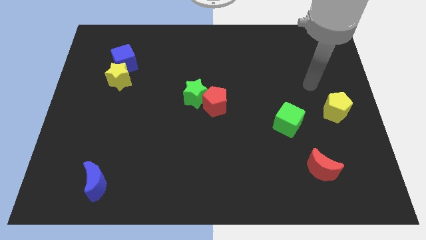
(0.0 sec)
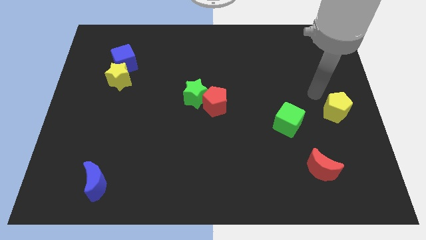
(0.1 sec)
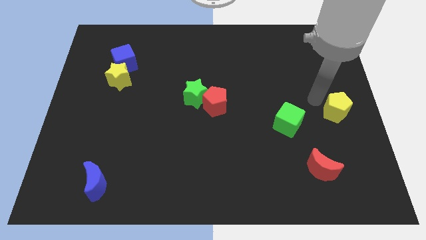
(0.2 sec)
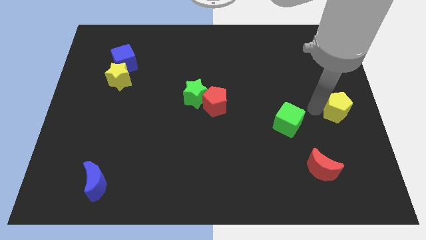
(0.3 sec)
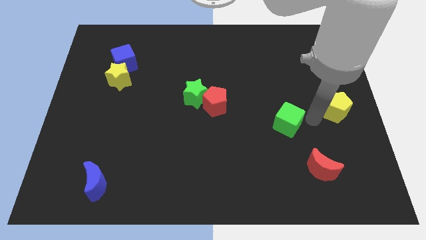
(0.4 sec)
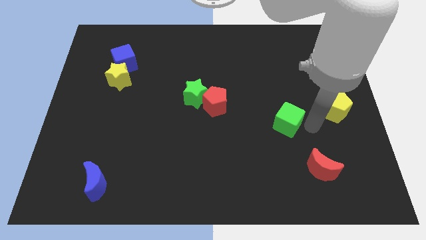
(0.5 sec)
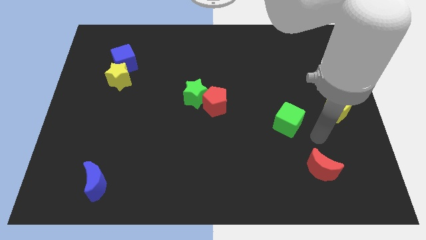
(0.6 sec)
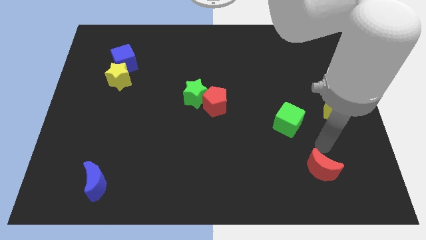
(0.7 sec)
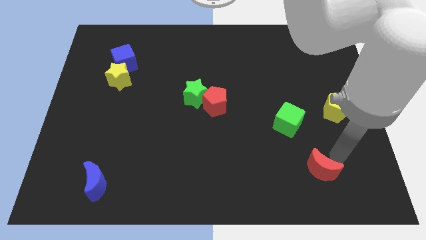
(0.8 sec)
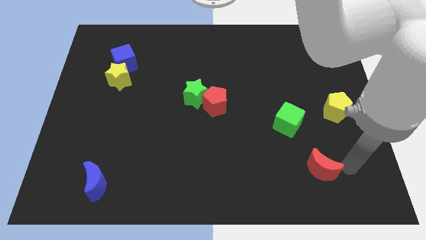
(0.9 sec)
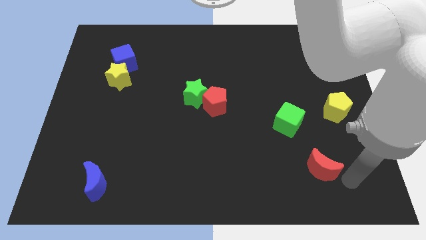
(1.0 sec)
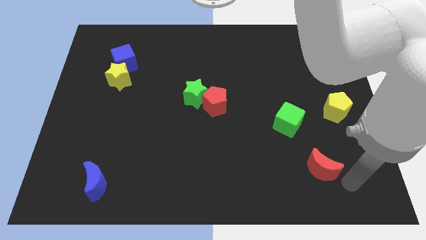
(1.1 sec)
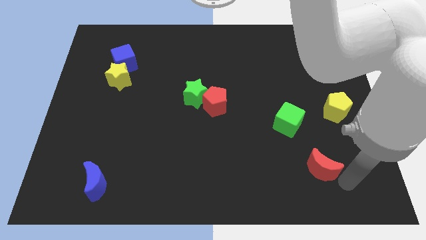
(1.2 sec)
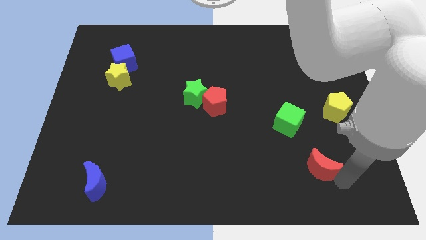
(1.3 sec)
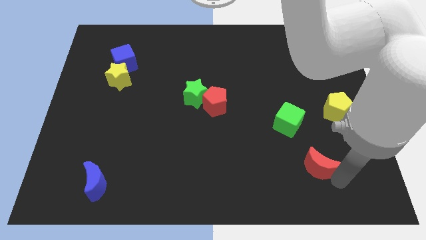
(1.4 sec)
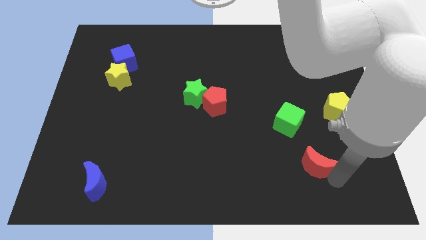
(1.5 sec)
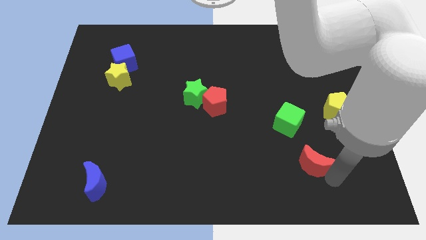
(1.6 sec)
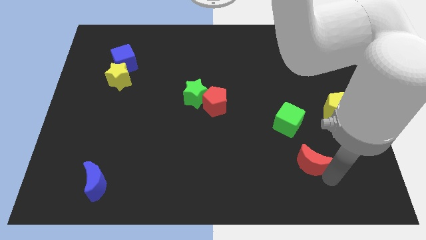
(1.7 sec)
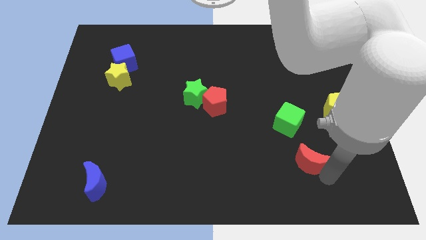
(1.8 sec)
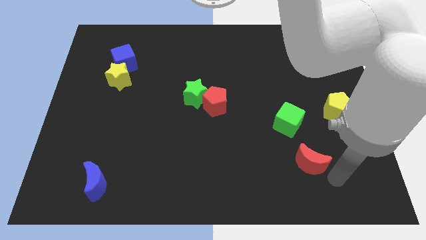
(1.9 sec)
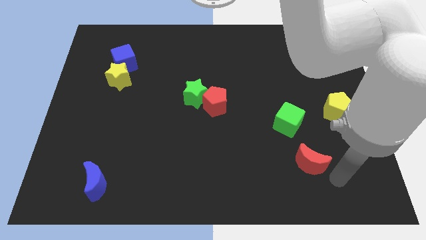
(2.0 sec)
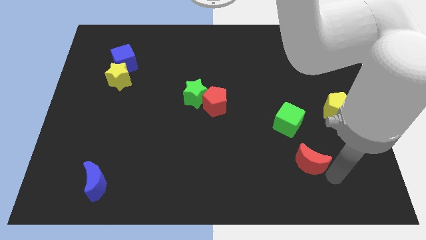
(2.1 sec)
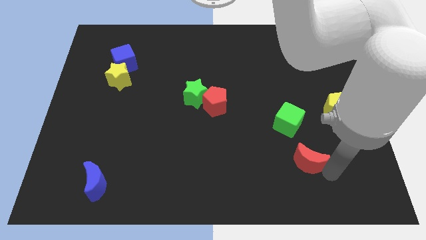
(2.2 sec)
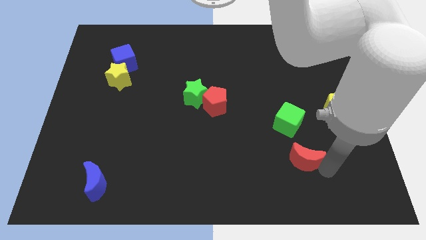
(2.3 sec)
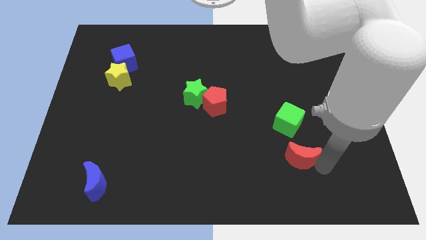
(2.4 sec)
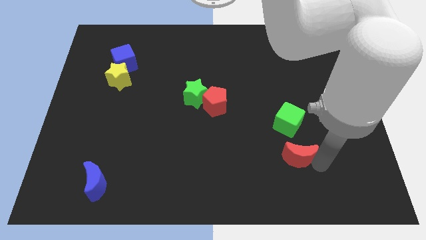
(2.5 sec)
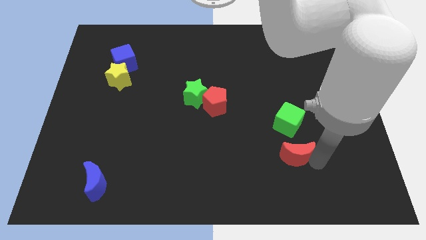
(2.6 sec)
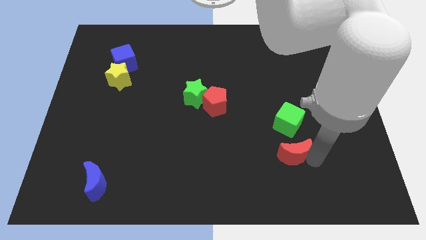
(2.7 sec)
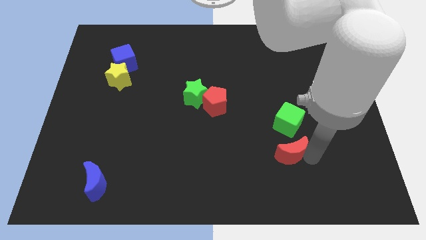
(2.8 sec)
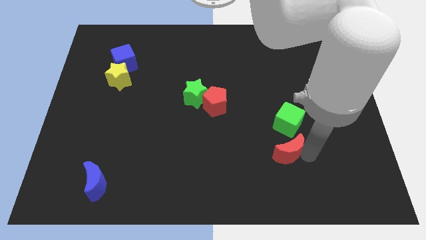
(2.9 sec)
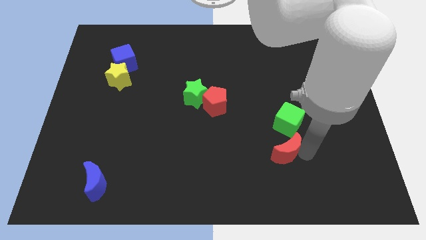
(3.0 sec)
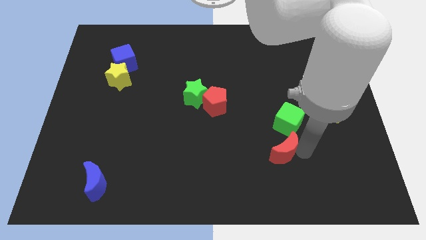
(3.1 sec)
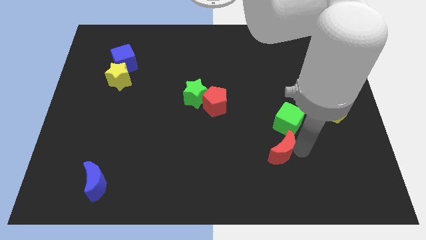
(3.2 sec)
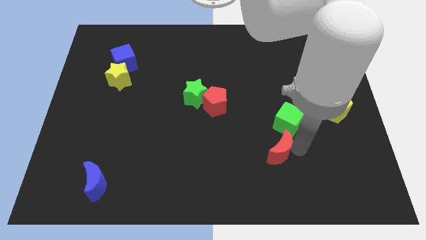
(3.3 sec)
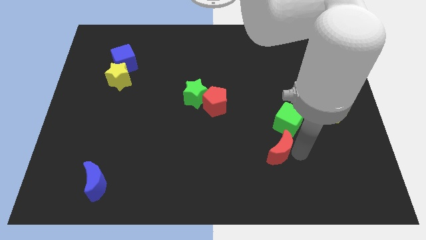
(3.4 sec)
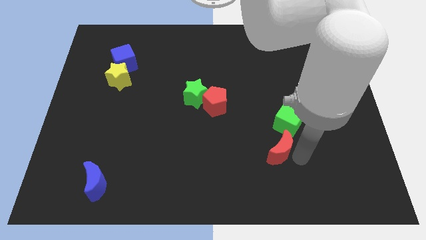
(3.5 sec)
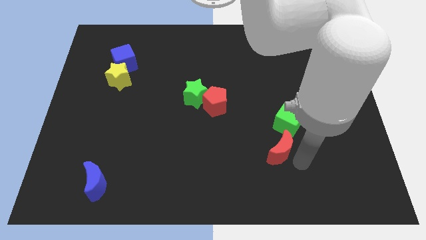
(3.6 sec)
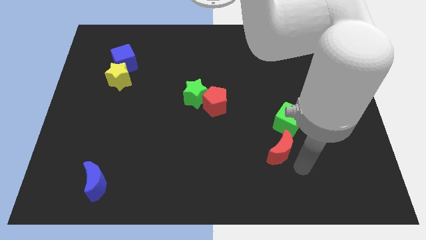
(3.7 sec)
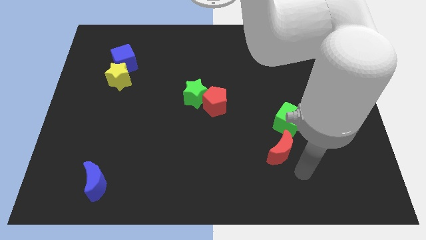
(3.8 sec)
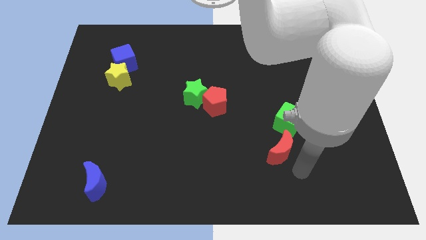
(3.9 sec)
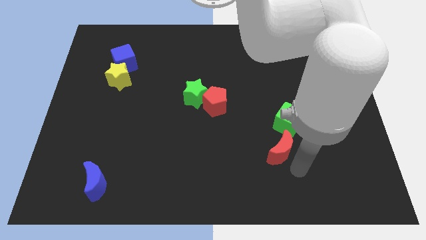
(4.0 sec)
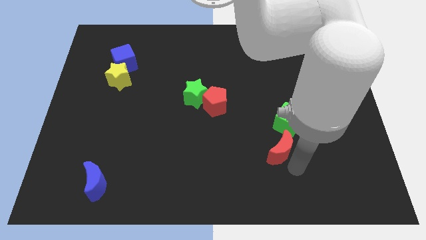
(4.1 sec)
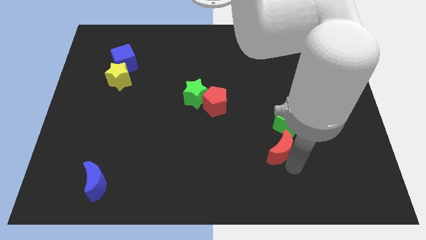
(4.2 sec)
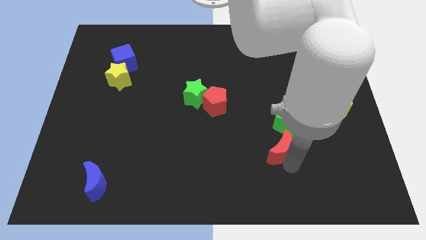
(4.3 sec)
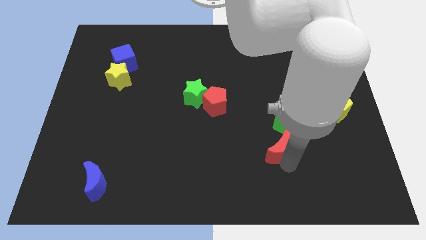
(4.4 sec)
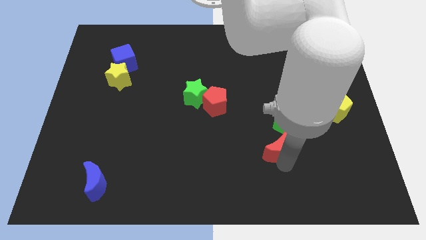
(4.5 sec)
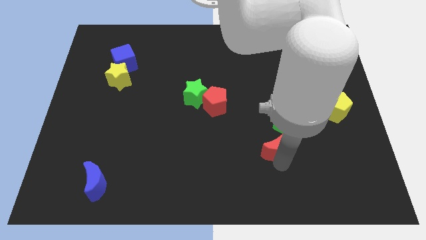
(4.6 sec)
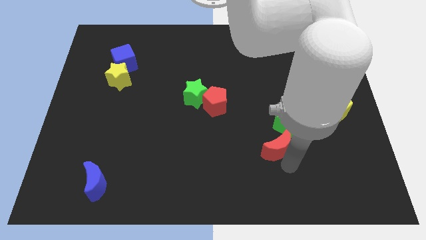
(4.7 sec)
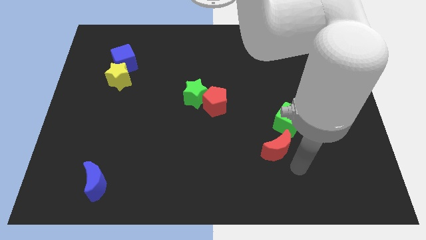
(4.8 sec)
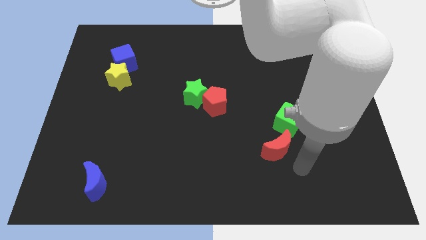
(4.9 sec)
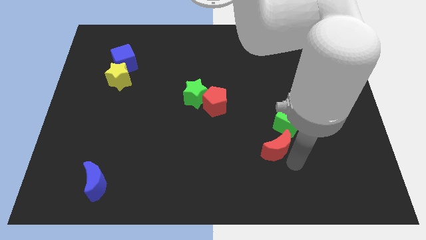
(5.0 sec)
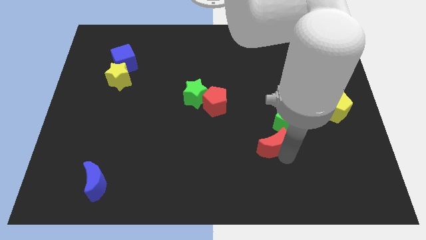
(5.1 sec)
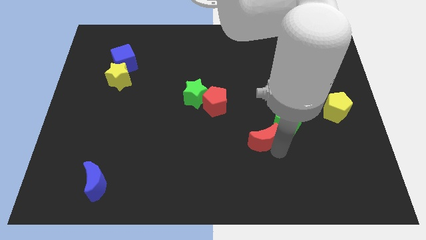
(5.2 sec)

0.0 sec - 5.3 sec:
put the red moon to the left of the green cube

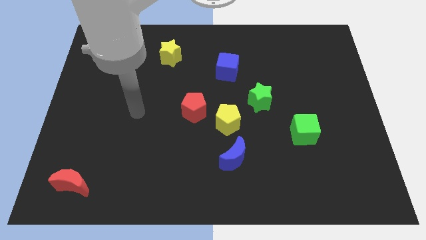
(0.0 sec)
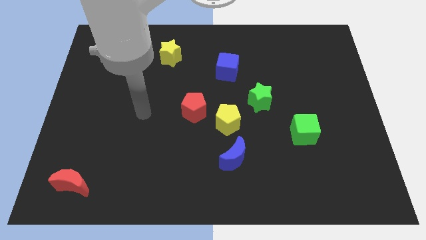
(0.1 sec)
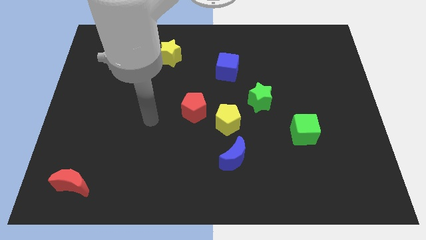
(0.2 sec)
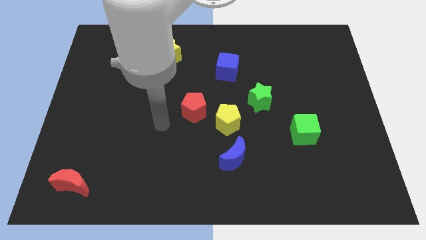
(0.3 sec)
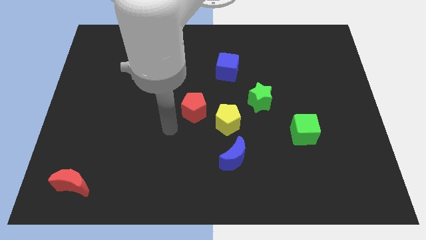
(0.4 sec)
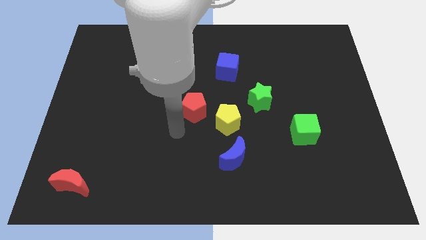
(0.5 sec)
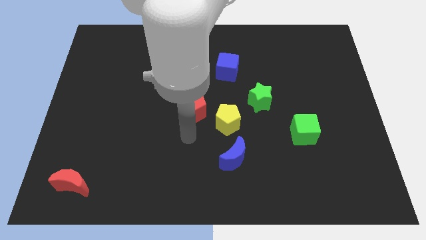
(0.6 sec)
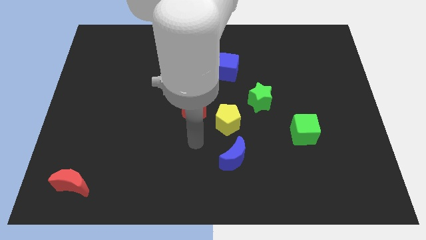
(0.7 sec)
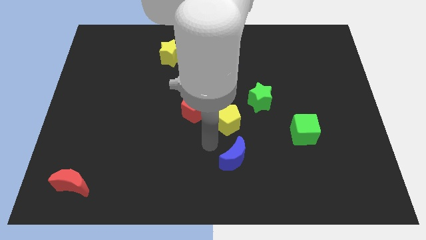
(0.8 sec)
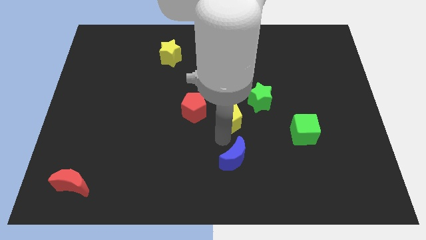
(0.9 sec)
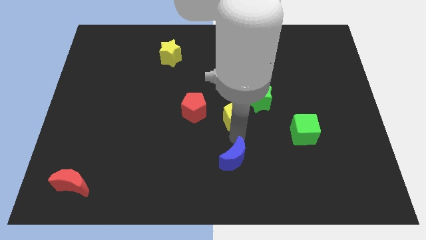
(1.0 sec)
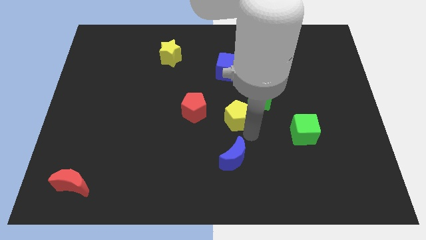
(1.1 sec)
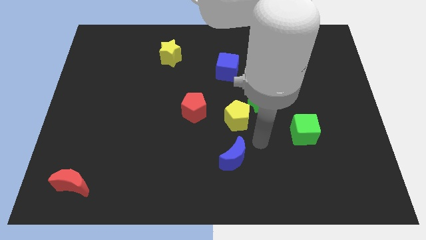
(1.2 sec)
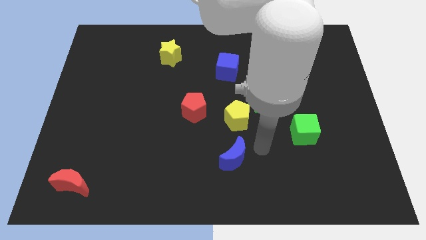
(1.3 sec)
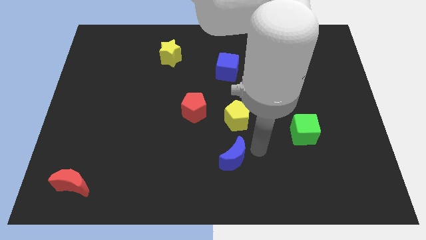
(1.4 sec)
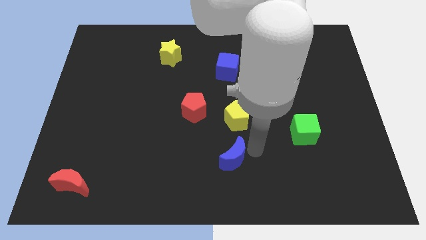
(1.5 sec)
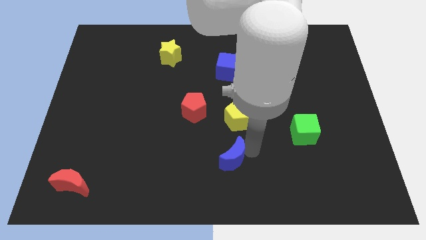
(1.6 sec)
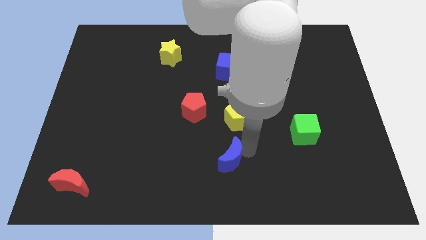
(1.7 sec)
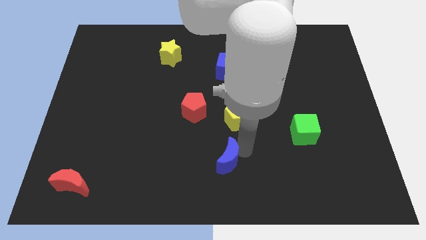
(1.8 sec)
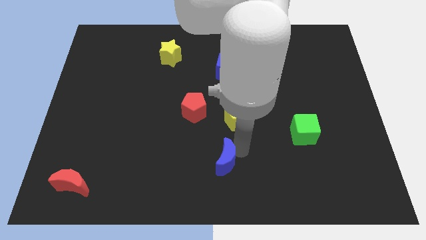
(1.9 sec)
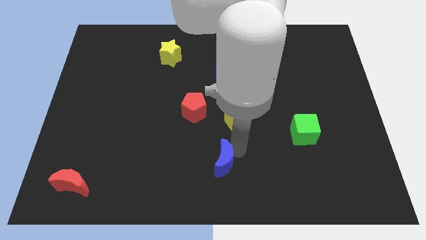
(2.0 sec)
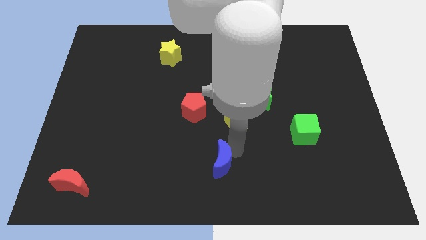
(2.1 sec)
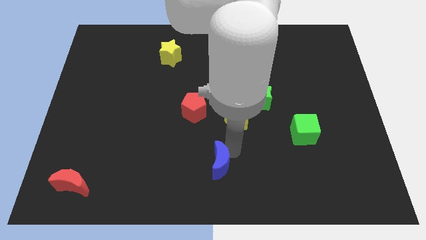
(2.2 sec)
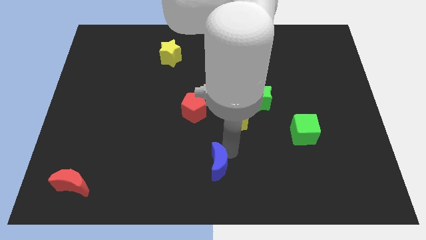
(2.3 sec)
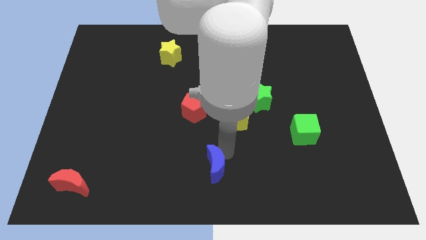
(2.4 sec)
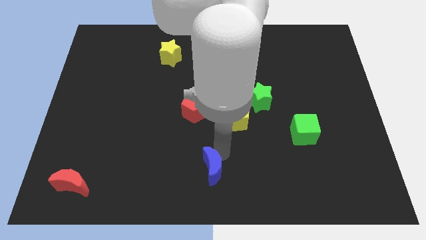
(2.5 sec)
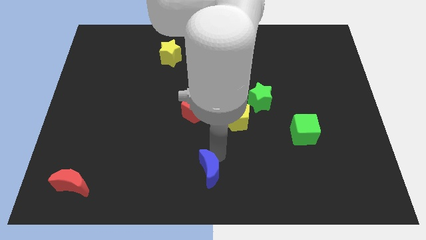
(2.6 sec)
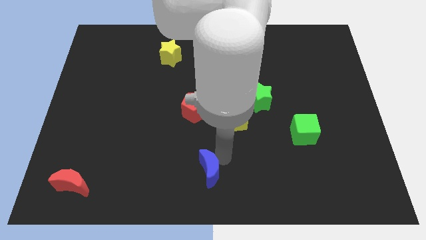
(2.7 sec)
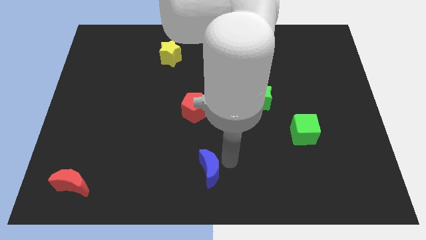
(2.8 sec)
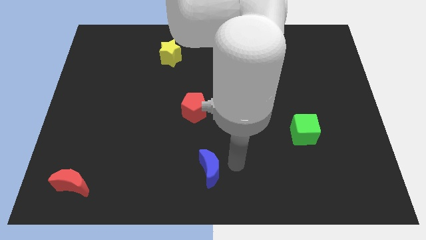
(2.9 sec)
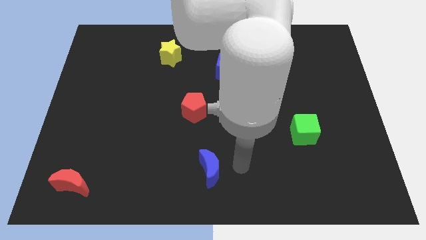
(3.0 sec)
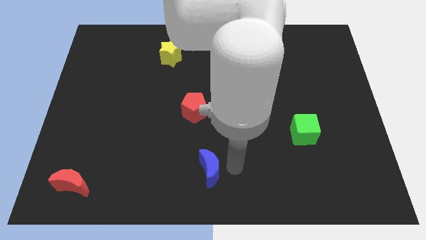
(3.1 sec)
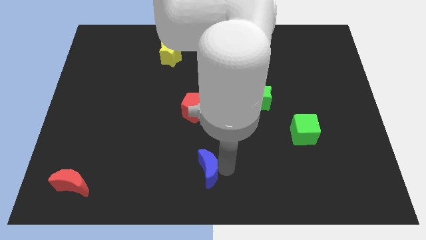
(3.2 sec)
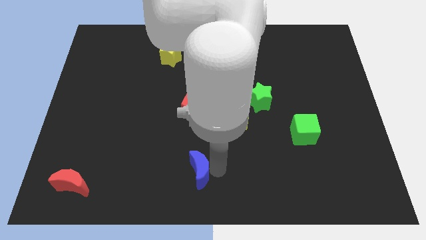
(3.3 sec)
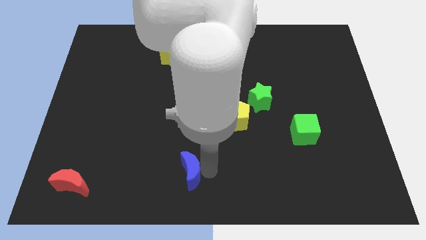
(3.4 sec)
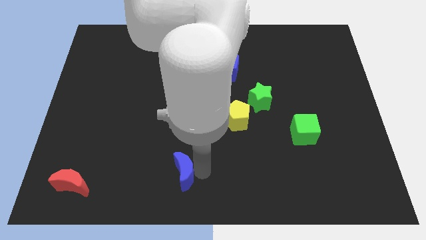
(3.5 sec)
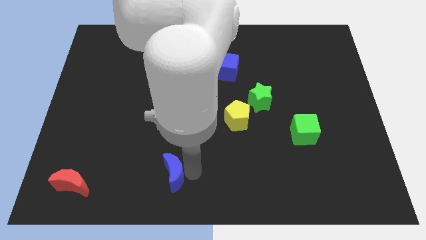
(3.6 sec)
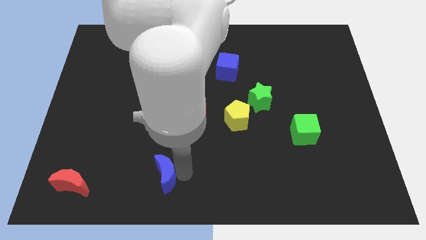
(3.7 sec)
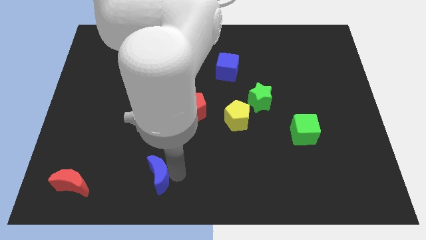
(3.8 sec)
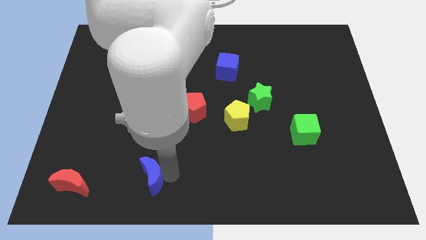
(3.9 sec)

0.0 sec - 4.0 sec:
push the blue moon just right of the red moon
